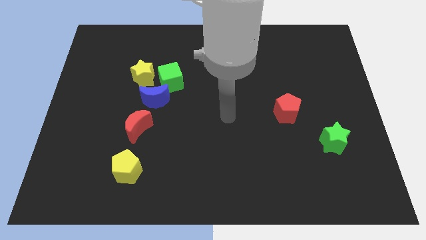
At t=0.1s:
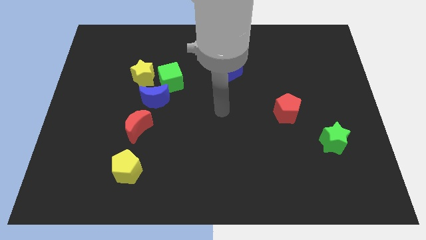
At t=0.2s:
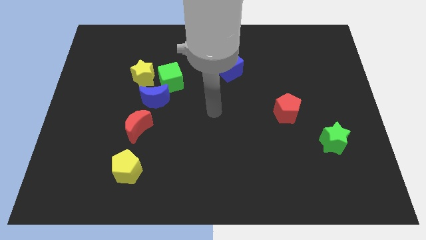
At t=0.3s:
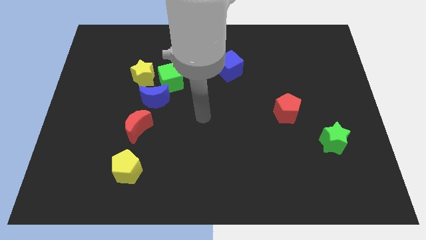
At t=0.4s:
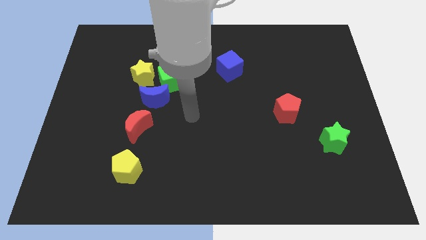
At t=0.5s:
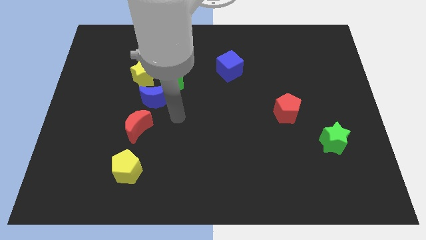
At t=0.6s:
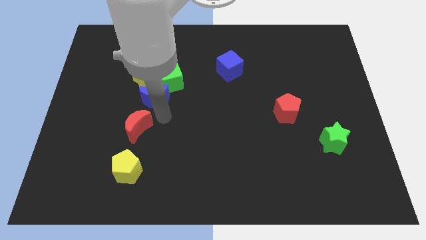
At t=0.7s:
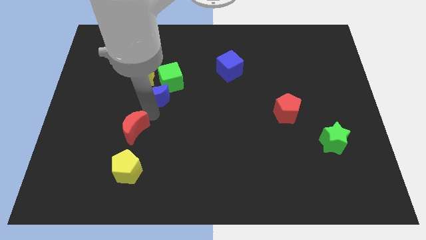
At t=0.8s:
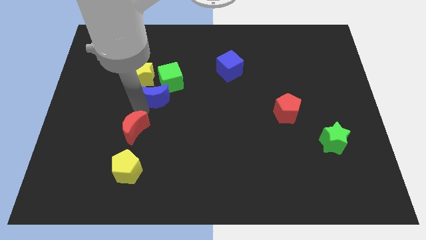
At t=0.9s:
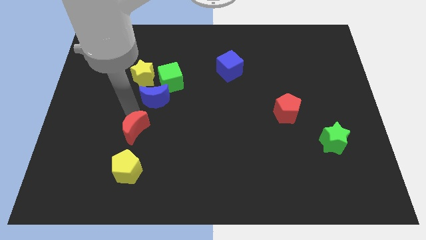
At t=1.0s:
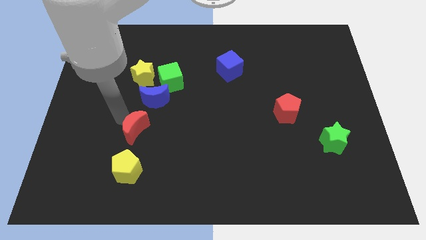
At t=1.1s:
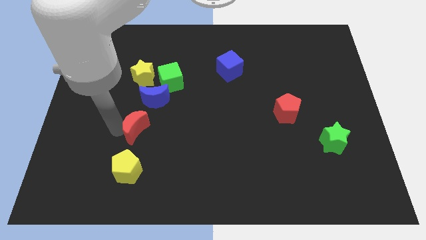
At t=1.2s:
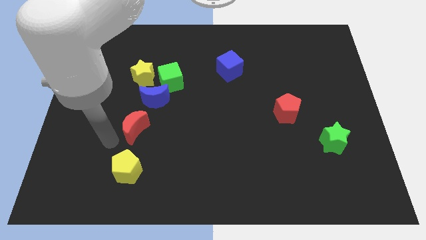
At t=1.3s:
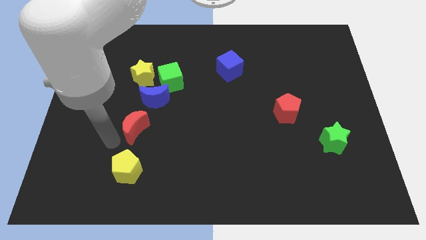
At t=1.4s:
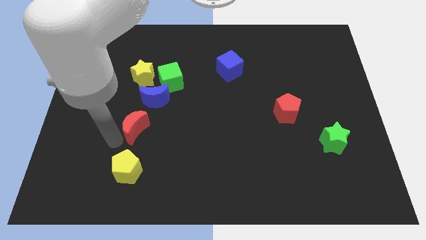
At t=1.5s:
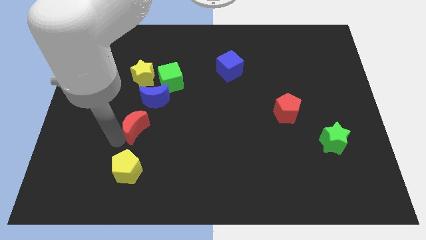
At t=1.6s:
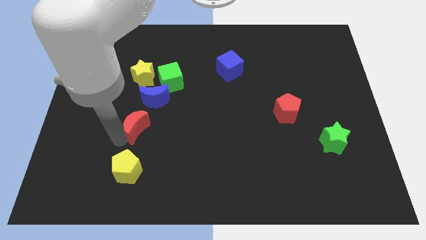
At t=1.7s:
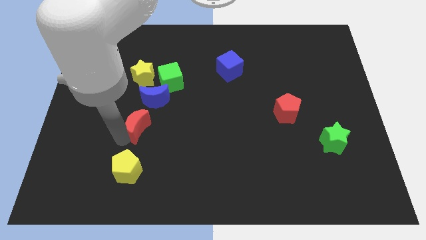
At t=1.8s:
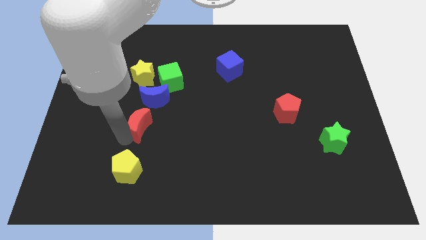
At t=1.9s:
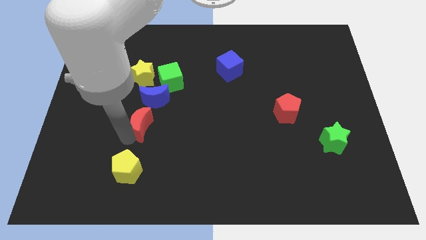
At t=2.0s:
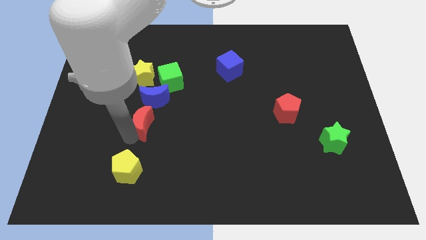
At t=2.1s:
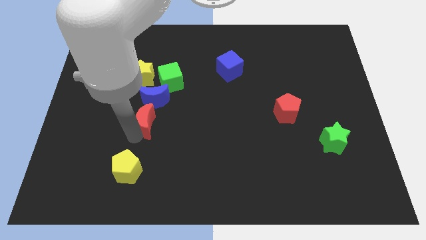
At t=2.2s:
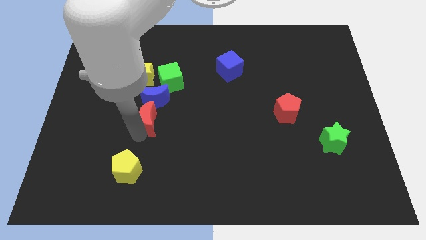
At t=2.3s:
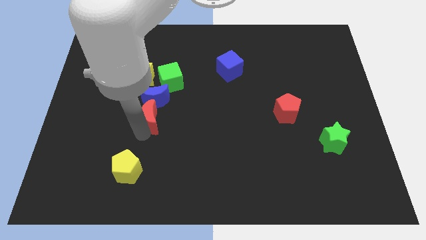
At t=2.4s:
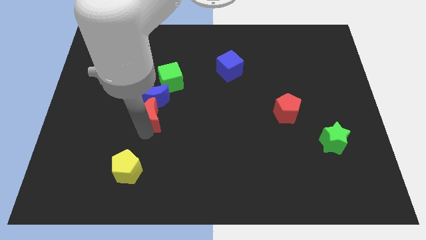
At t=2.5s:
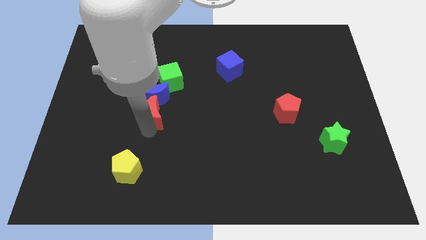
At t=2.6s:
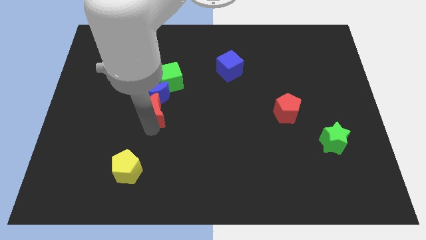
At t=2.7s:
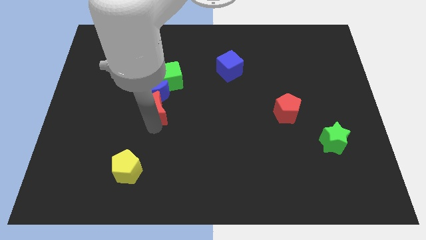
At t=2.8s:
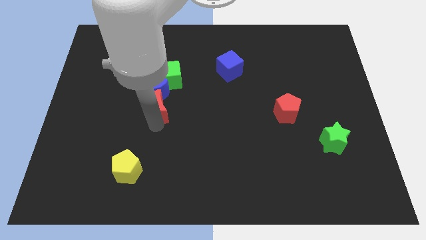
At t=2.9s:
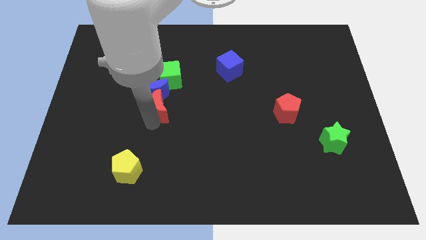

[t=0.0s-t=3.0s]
slightly push the red moon upwards and right

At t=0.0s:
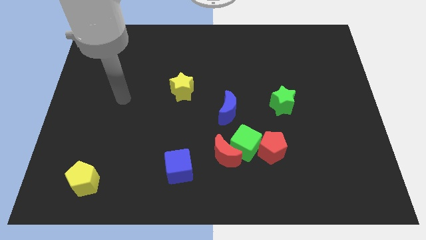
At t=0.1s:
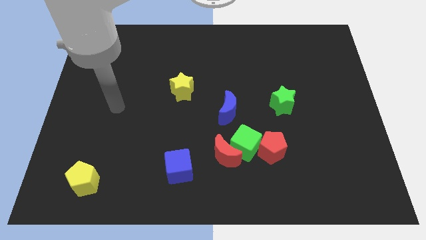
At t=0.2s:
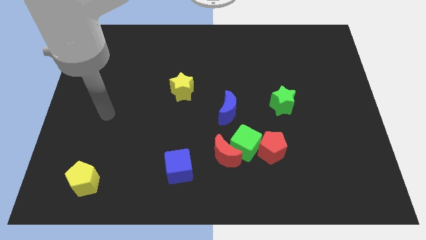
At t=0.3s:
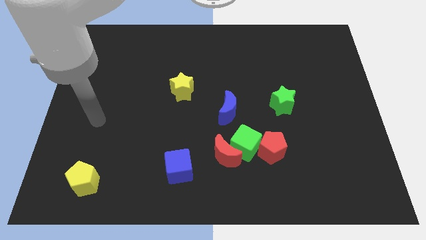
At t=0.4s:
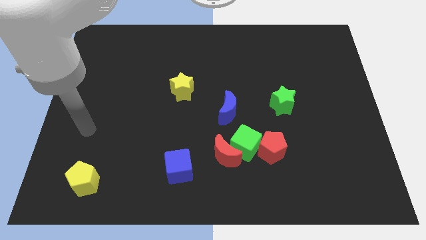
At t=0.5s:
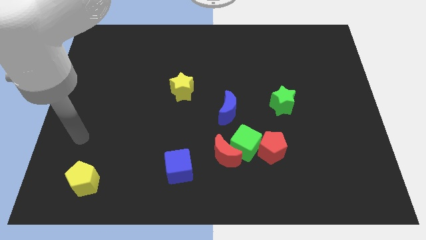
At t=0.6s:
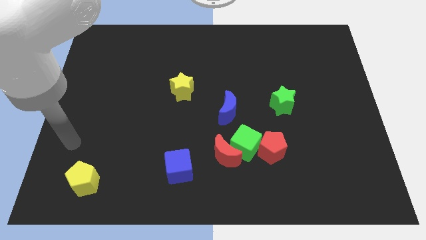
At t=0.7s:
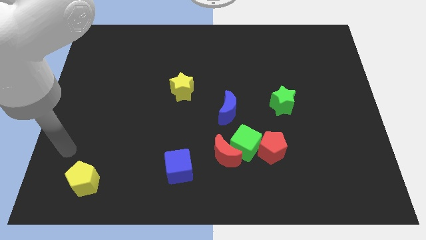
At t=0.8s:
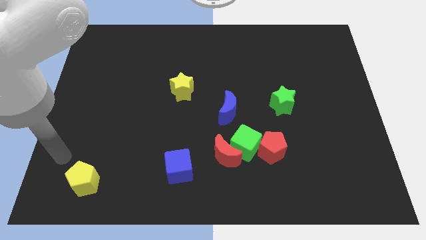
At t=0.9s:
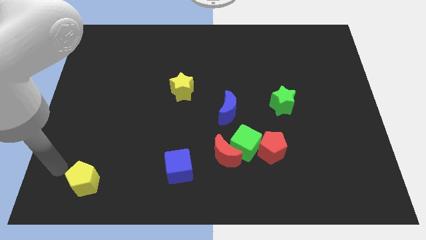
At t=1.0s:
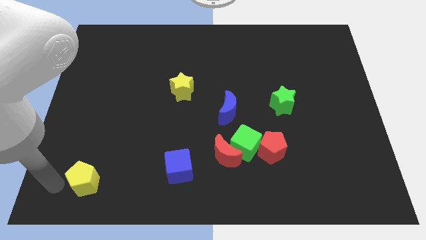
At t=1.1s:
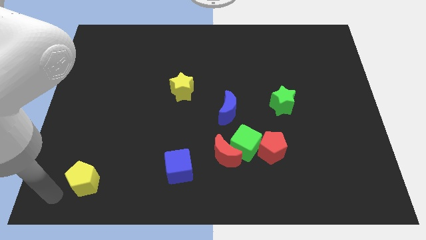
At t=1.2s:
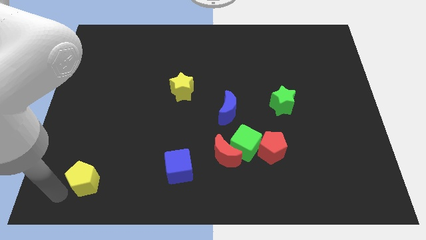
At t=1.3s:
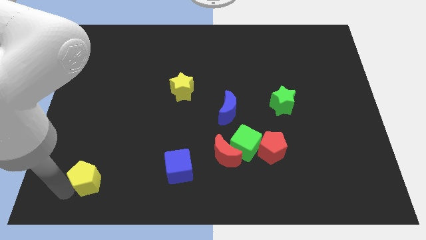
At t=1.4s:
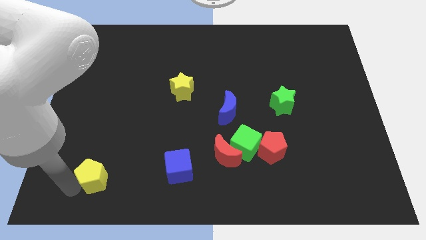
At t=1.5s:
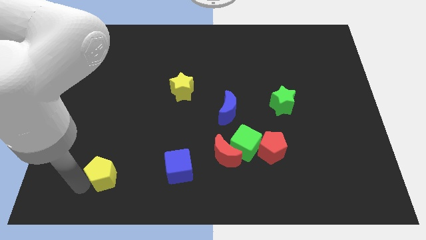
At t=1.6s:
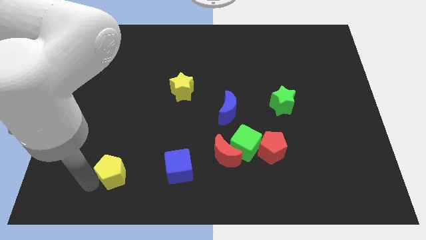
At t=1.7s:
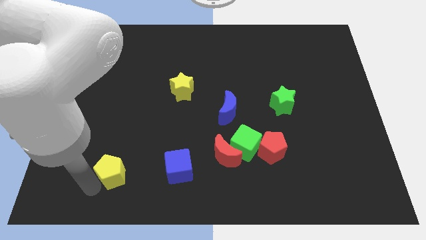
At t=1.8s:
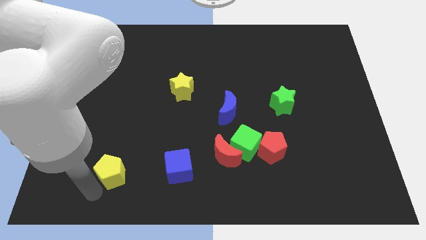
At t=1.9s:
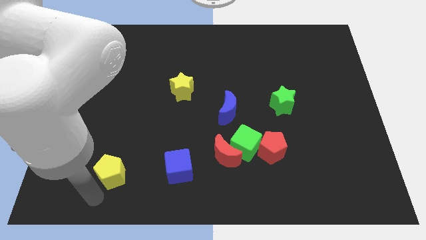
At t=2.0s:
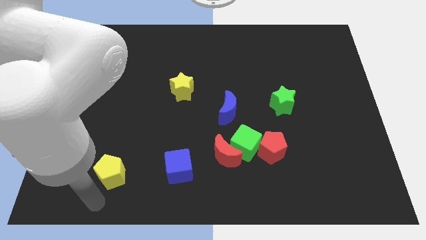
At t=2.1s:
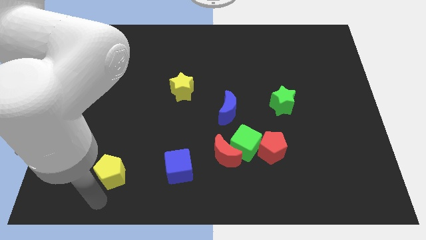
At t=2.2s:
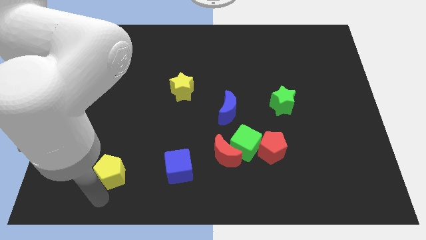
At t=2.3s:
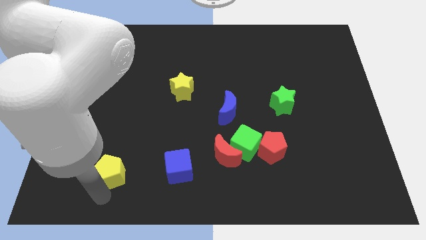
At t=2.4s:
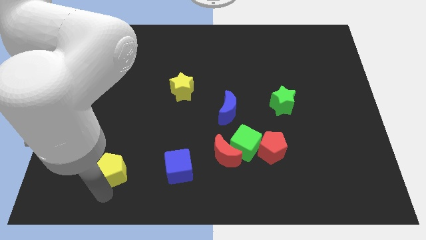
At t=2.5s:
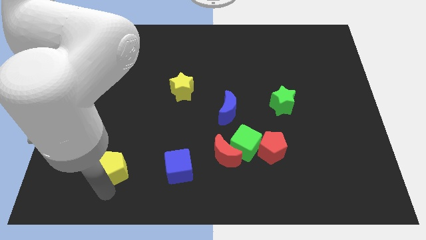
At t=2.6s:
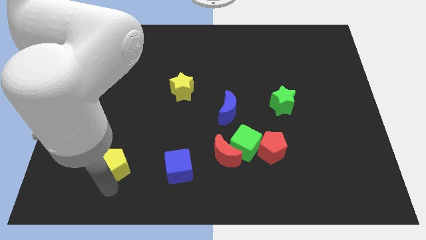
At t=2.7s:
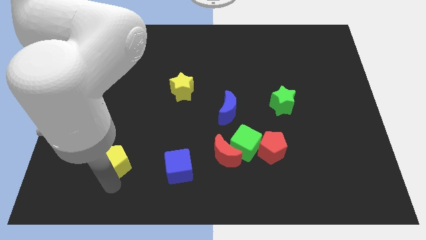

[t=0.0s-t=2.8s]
move the yellow pentagon upwards and then to the right a bit

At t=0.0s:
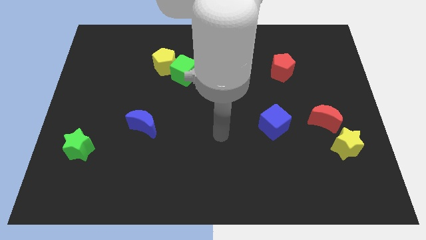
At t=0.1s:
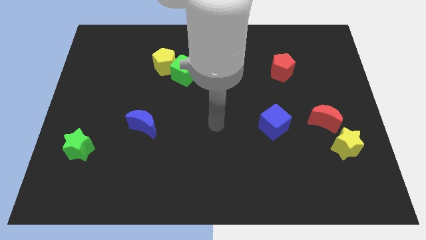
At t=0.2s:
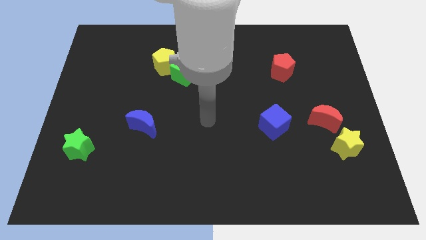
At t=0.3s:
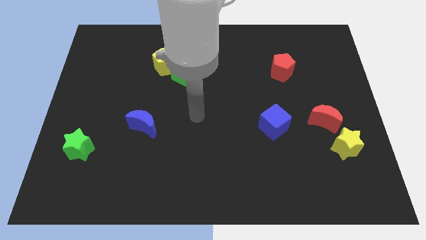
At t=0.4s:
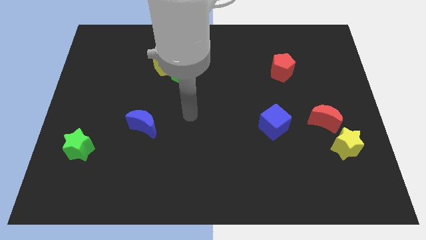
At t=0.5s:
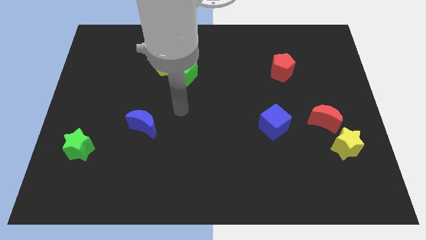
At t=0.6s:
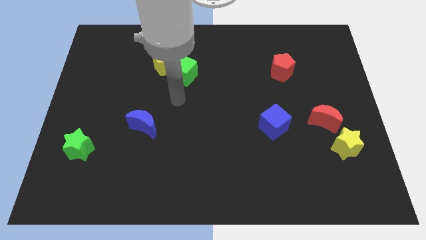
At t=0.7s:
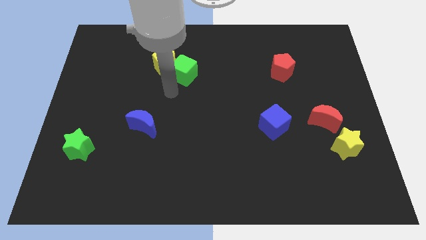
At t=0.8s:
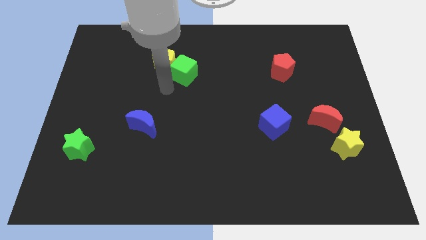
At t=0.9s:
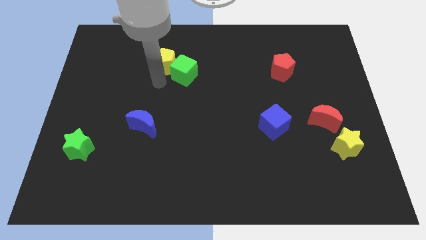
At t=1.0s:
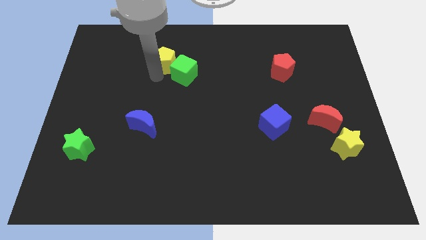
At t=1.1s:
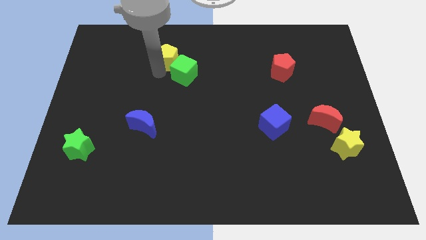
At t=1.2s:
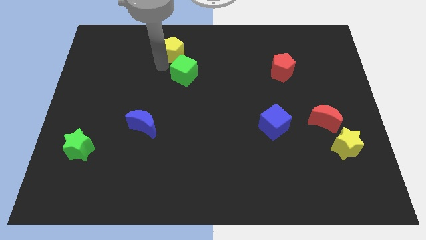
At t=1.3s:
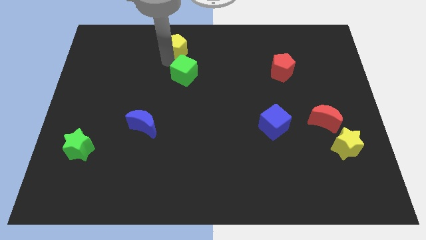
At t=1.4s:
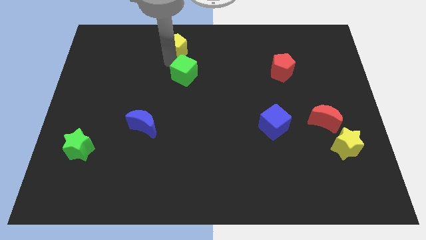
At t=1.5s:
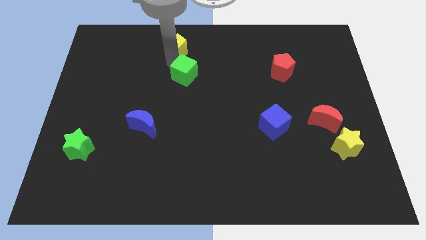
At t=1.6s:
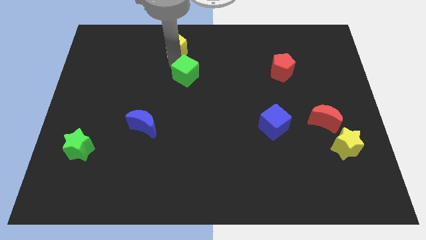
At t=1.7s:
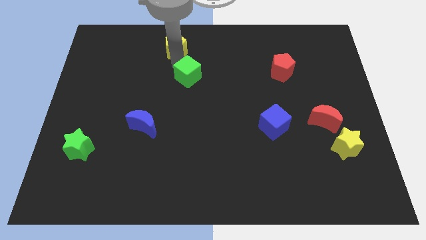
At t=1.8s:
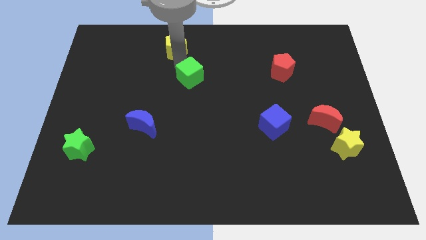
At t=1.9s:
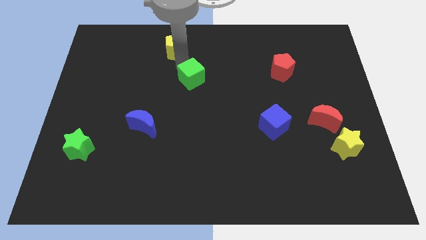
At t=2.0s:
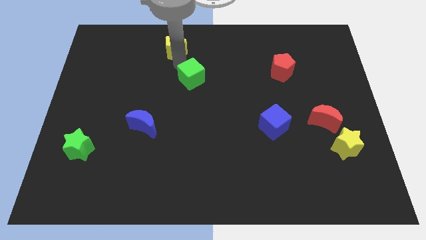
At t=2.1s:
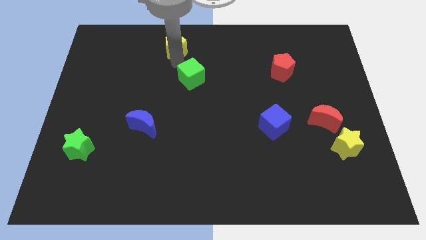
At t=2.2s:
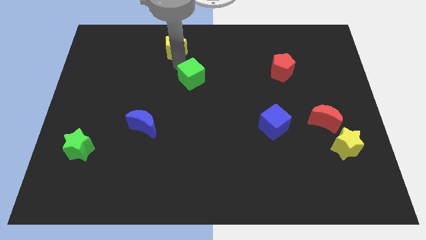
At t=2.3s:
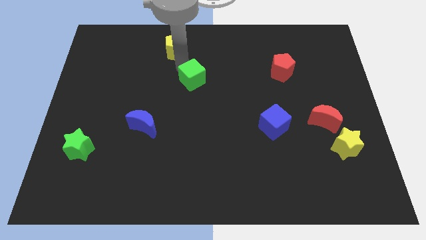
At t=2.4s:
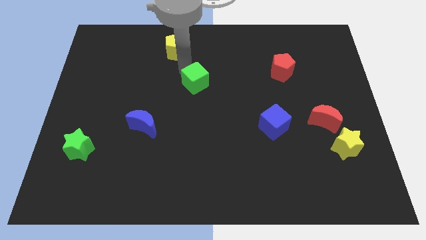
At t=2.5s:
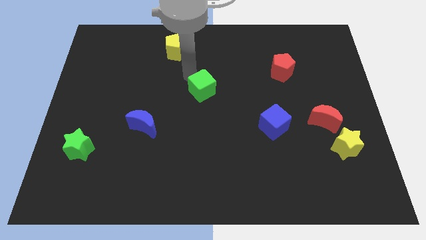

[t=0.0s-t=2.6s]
slightly slide the green cube downwards and right

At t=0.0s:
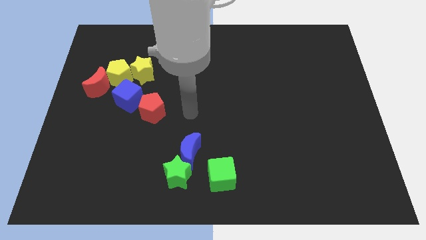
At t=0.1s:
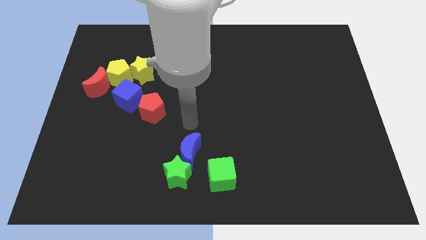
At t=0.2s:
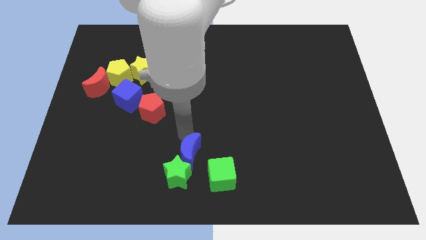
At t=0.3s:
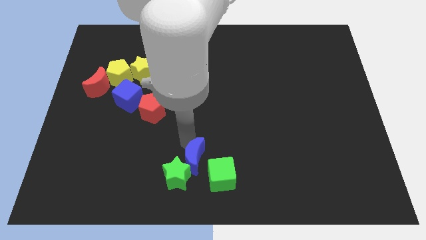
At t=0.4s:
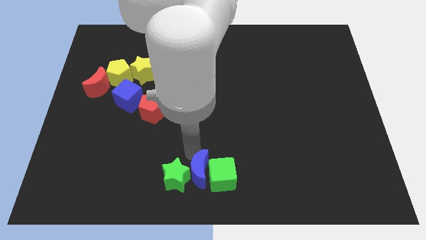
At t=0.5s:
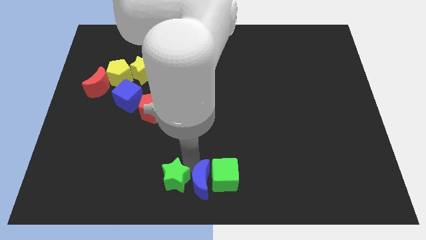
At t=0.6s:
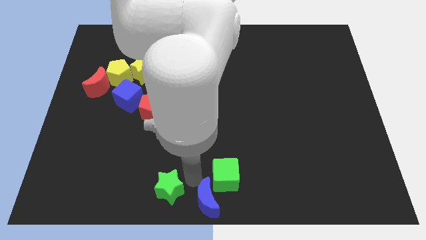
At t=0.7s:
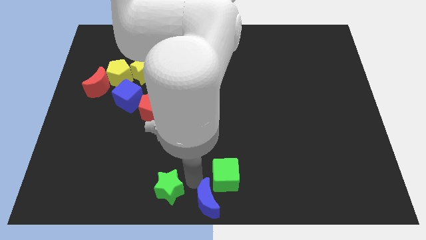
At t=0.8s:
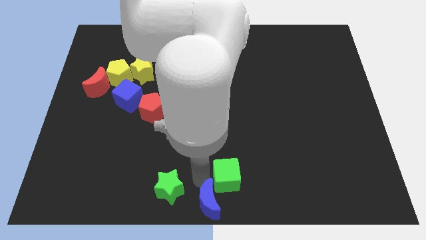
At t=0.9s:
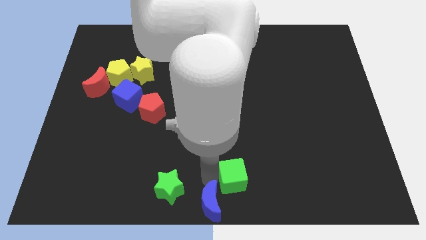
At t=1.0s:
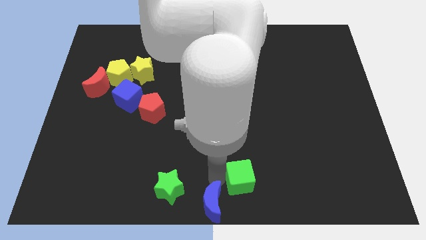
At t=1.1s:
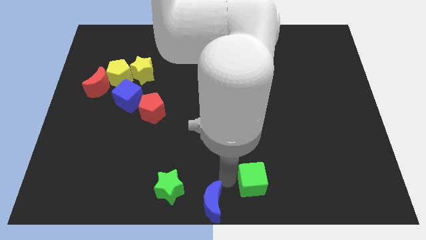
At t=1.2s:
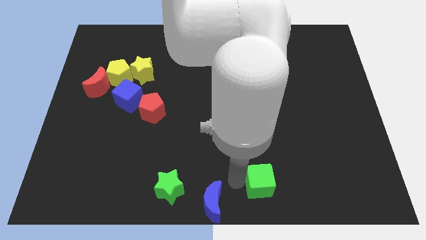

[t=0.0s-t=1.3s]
slightly move the green cube to the right
